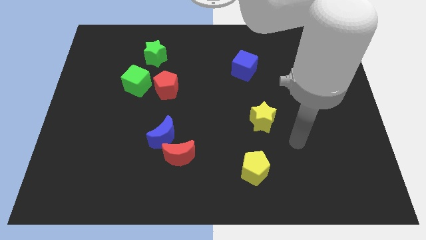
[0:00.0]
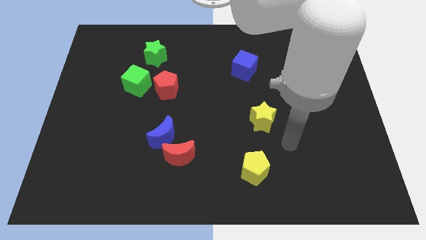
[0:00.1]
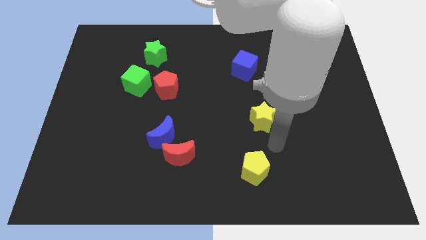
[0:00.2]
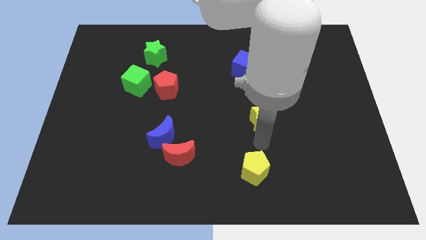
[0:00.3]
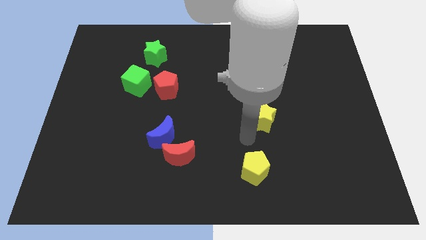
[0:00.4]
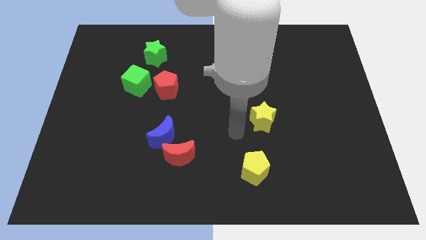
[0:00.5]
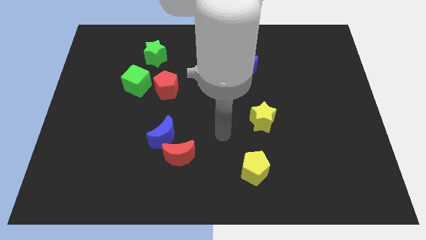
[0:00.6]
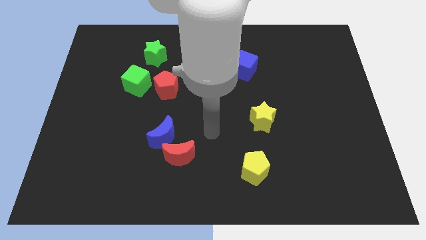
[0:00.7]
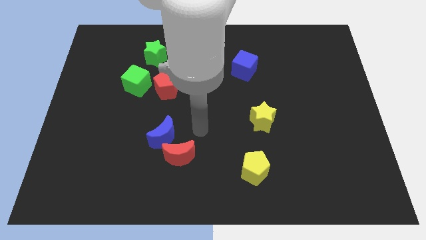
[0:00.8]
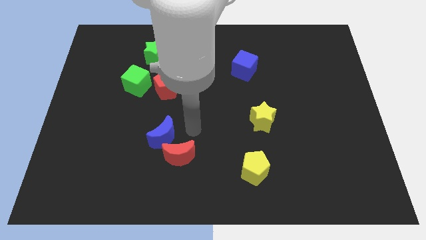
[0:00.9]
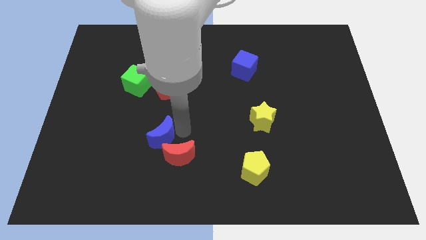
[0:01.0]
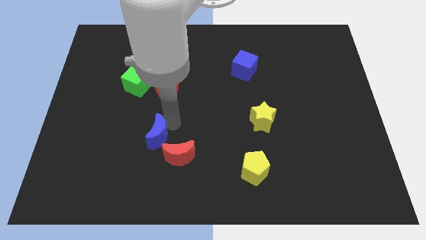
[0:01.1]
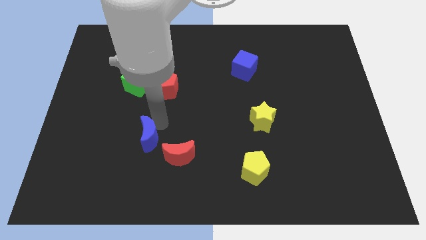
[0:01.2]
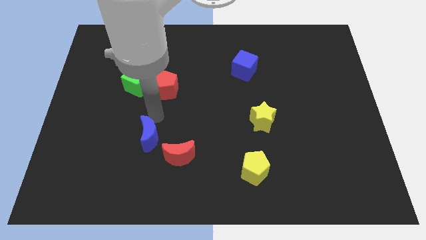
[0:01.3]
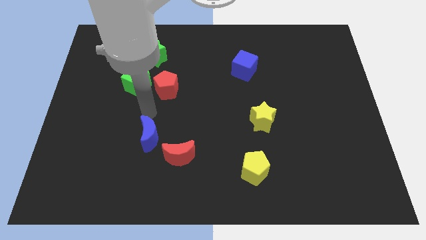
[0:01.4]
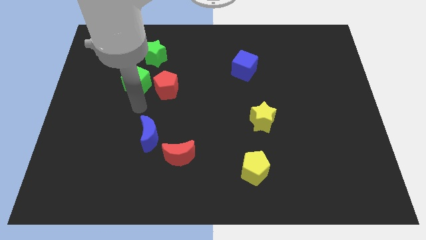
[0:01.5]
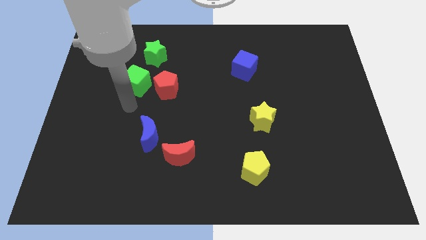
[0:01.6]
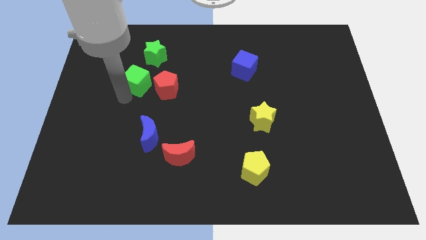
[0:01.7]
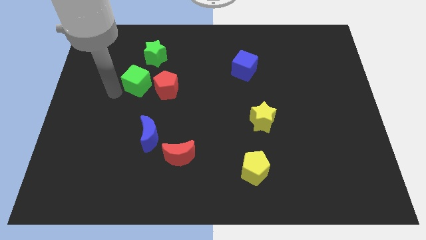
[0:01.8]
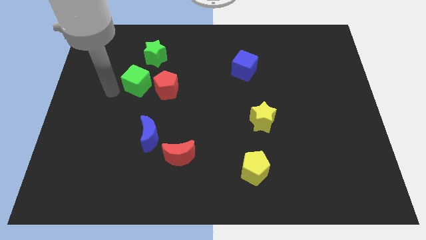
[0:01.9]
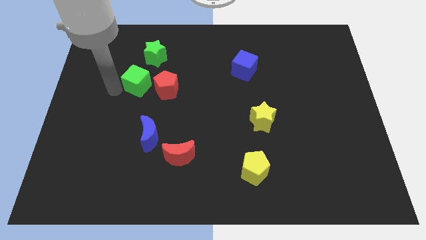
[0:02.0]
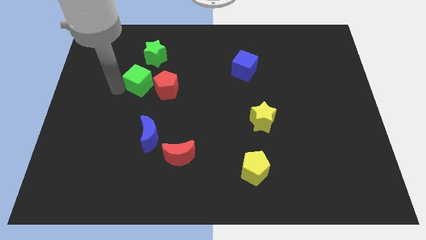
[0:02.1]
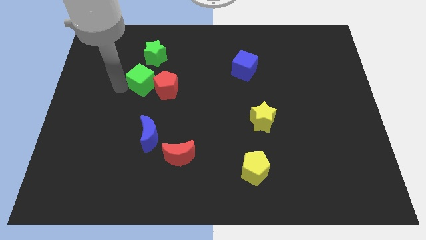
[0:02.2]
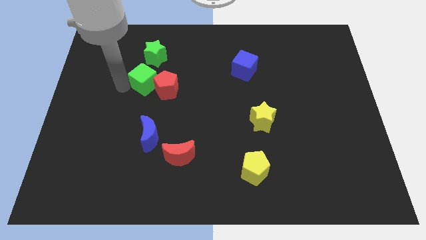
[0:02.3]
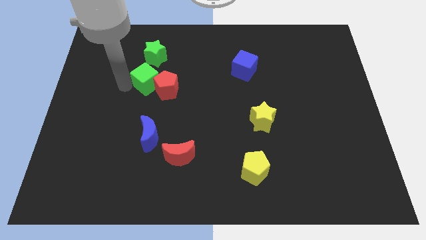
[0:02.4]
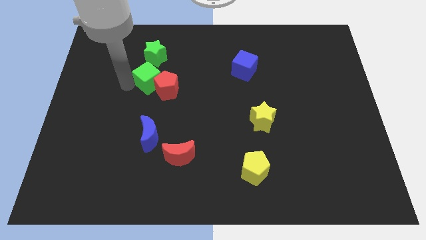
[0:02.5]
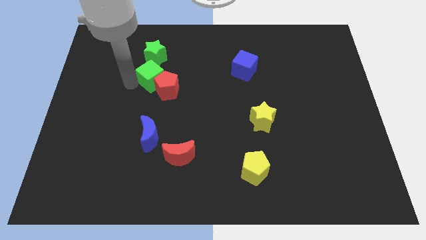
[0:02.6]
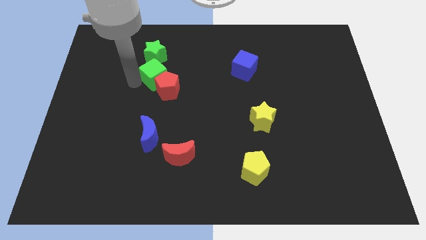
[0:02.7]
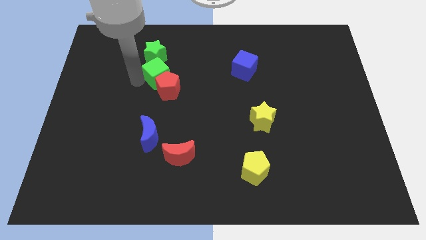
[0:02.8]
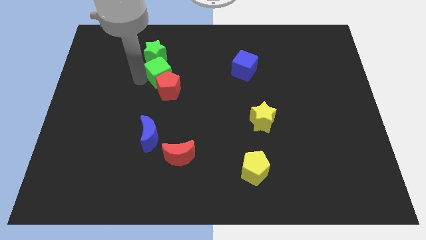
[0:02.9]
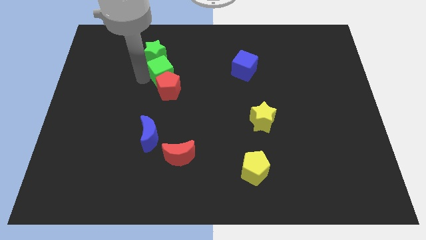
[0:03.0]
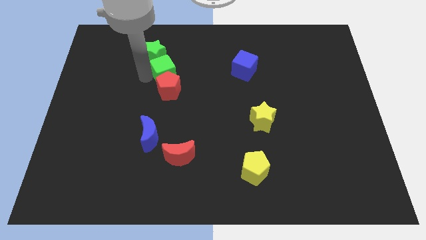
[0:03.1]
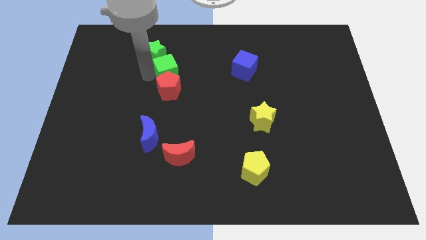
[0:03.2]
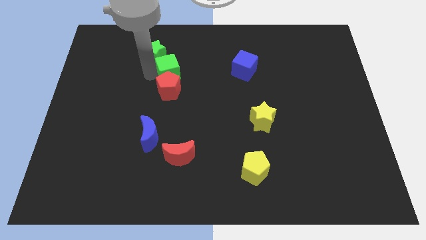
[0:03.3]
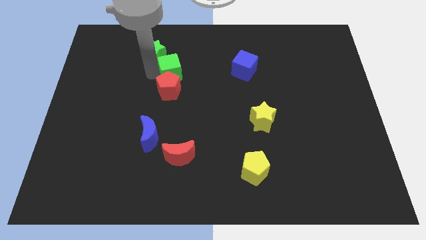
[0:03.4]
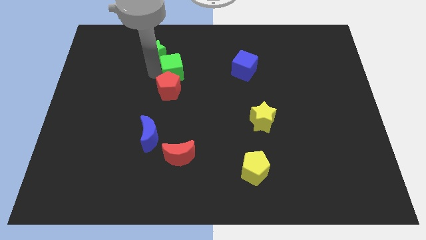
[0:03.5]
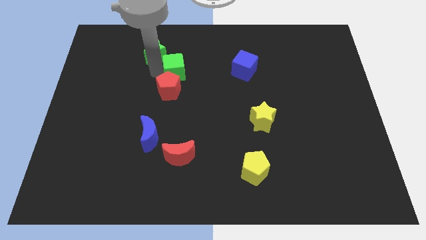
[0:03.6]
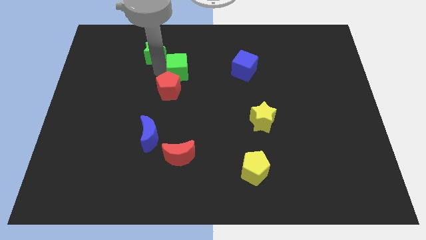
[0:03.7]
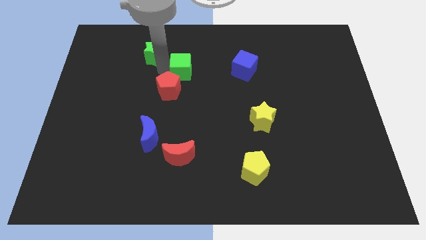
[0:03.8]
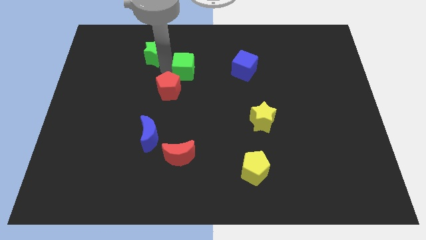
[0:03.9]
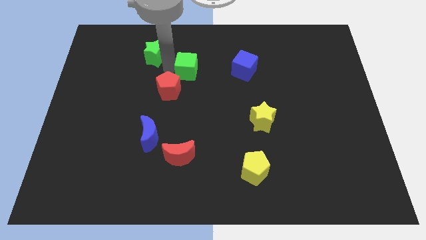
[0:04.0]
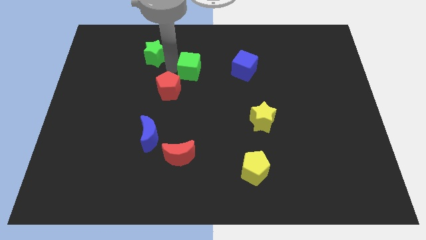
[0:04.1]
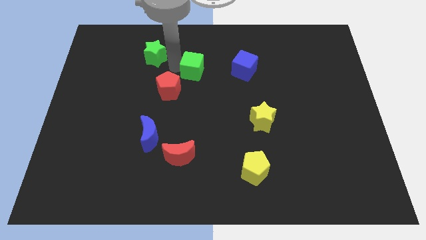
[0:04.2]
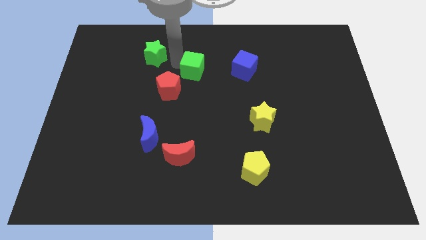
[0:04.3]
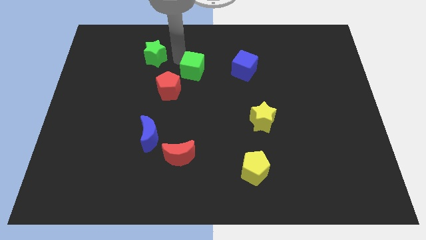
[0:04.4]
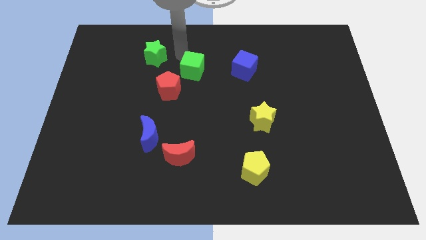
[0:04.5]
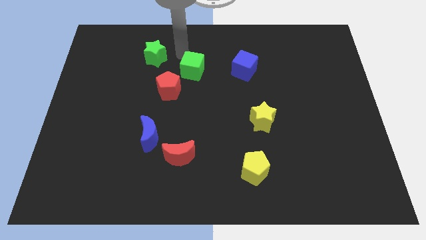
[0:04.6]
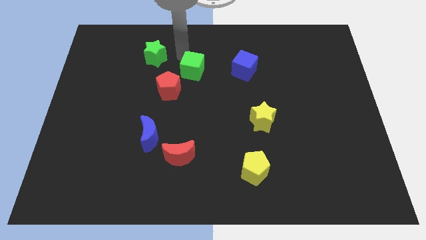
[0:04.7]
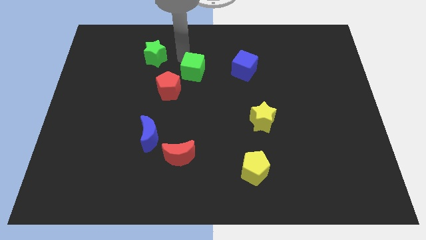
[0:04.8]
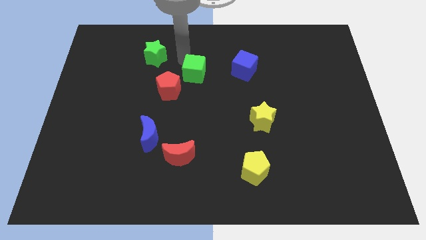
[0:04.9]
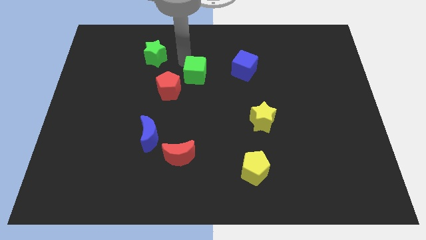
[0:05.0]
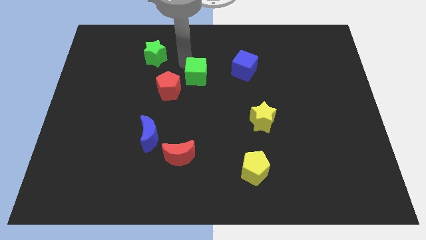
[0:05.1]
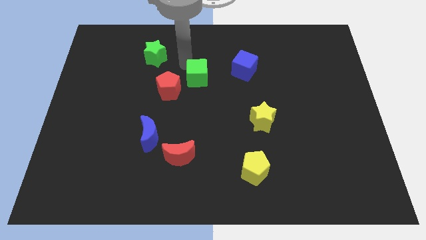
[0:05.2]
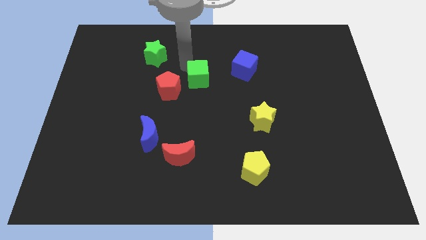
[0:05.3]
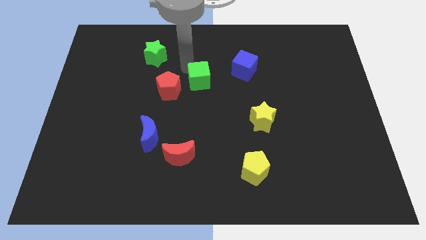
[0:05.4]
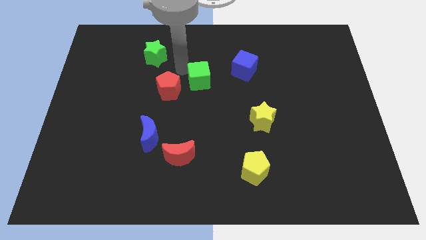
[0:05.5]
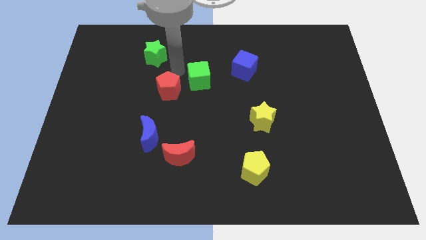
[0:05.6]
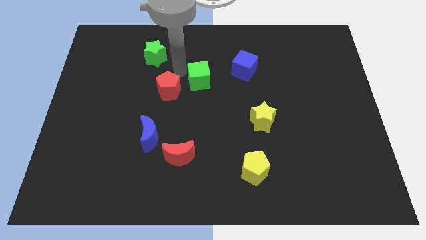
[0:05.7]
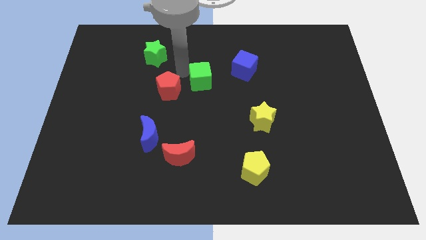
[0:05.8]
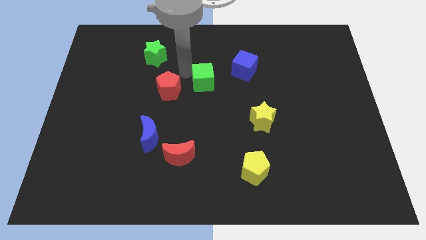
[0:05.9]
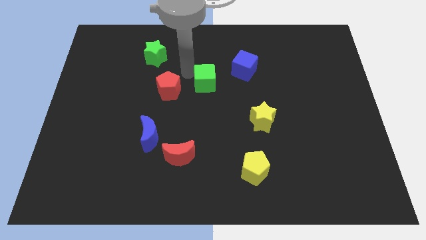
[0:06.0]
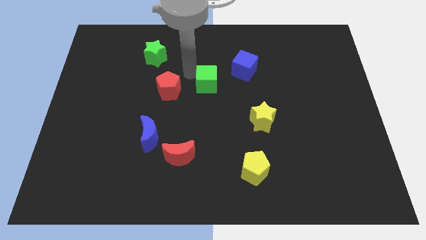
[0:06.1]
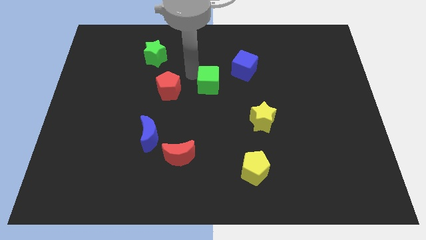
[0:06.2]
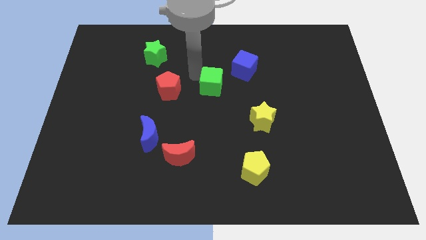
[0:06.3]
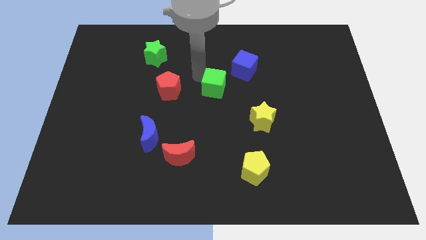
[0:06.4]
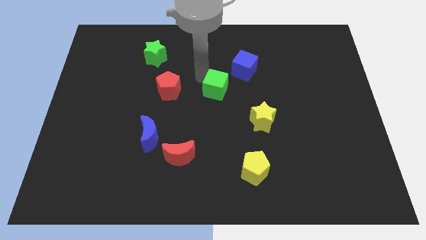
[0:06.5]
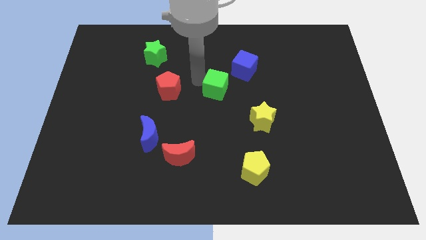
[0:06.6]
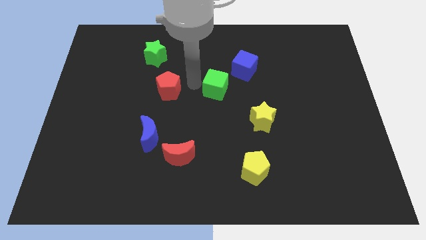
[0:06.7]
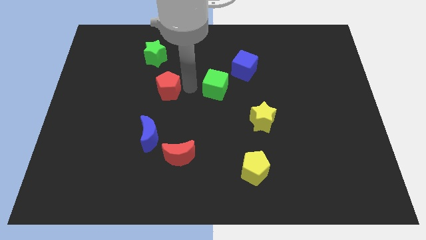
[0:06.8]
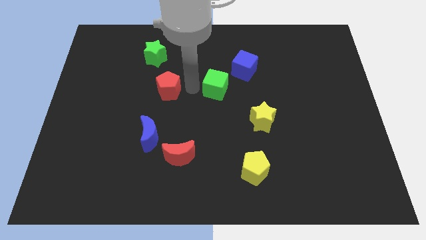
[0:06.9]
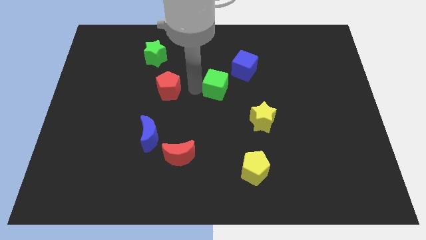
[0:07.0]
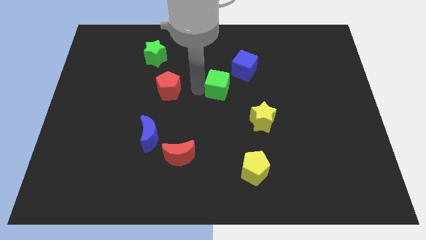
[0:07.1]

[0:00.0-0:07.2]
move the green cube to the right

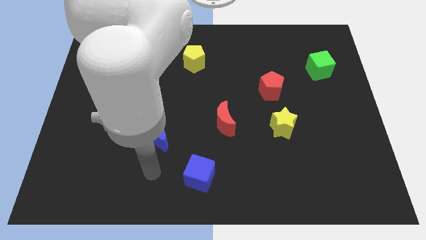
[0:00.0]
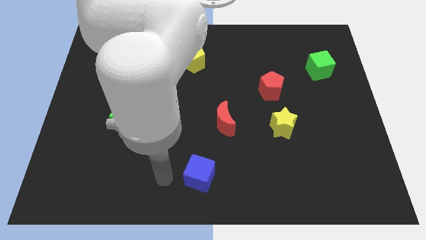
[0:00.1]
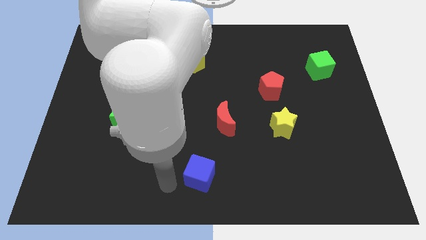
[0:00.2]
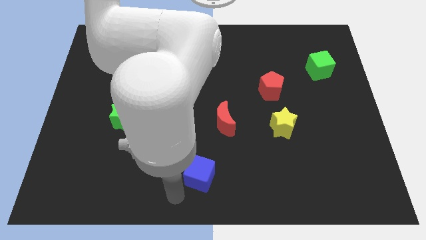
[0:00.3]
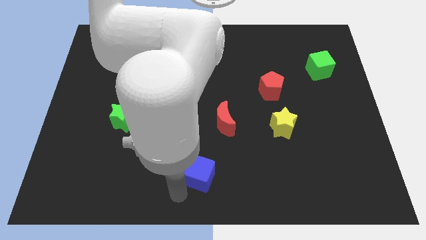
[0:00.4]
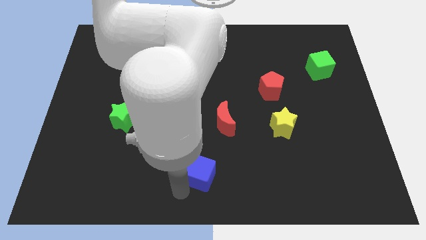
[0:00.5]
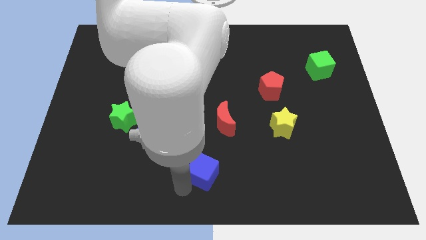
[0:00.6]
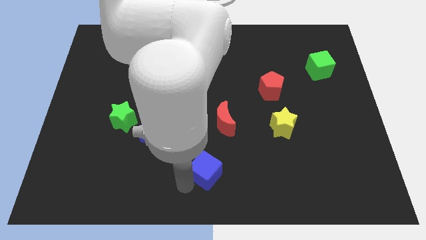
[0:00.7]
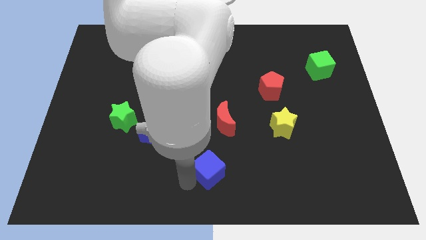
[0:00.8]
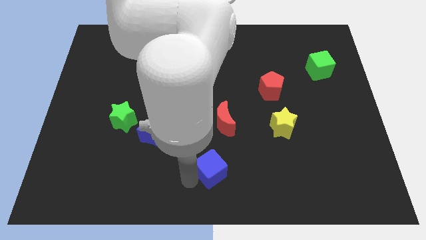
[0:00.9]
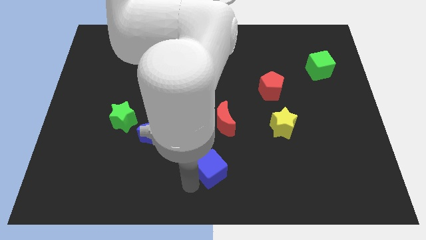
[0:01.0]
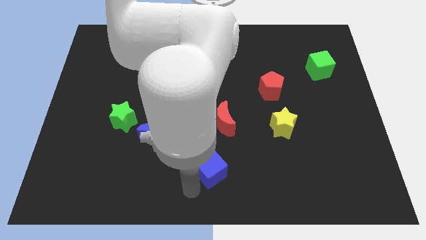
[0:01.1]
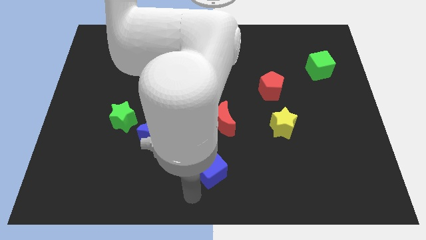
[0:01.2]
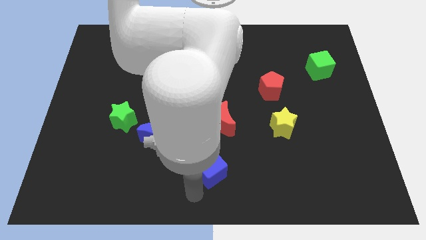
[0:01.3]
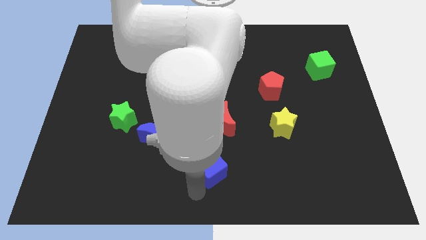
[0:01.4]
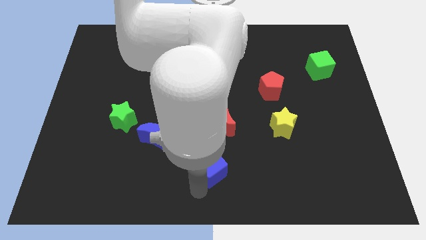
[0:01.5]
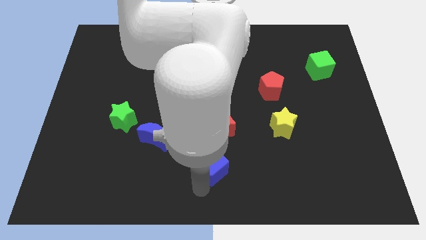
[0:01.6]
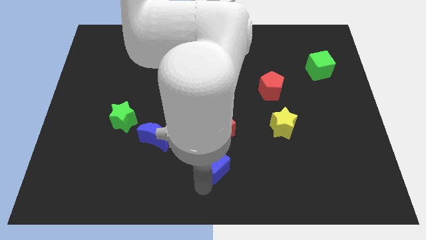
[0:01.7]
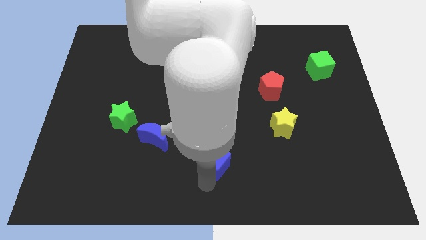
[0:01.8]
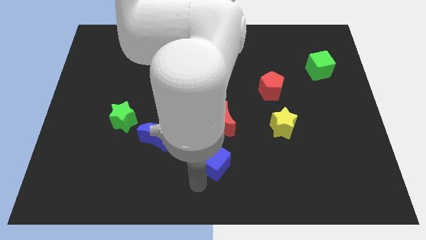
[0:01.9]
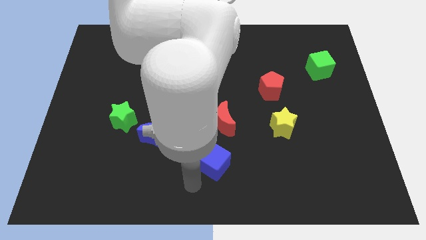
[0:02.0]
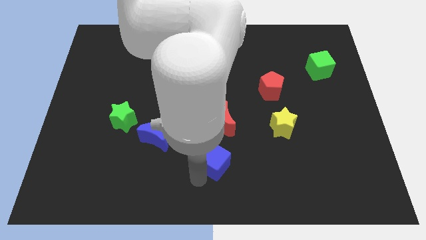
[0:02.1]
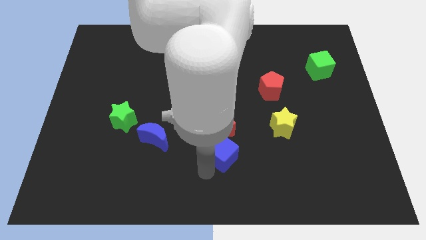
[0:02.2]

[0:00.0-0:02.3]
move the blue cube somewhat upwards and to the right diagonally
